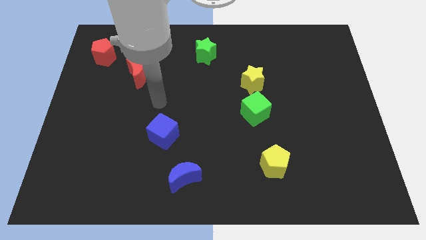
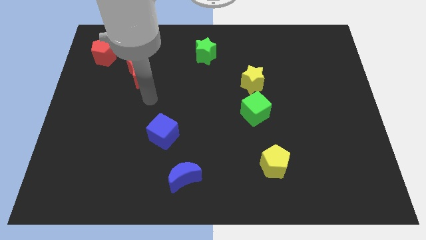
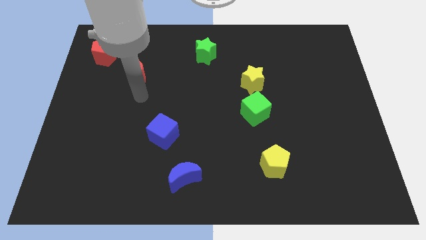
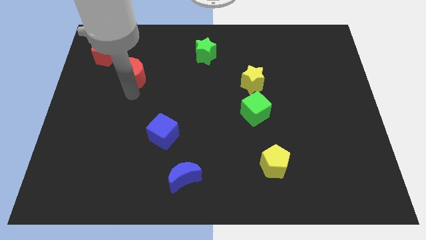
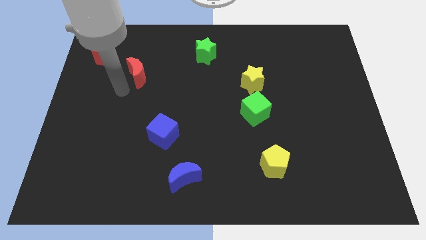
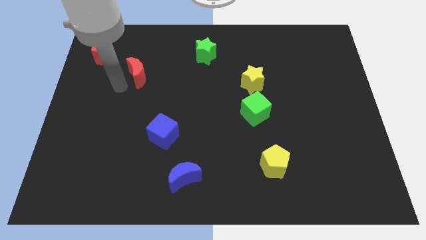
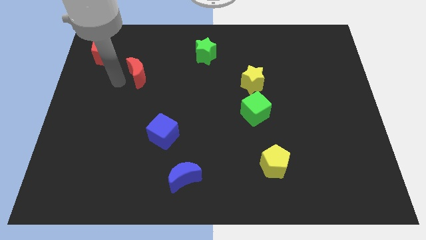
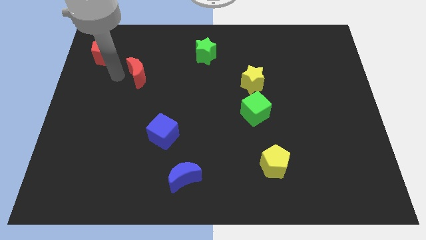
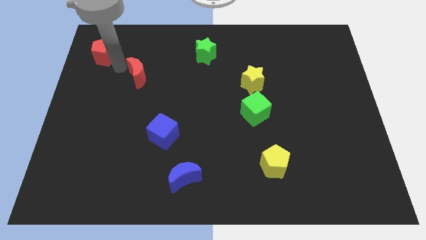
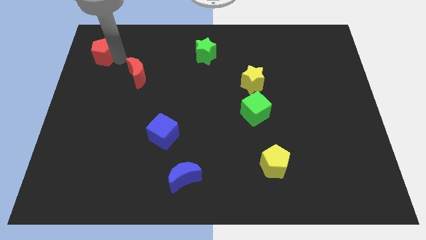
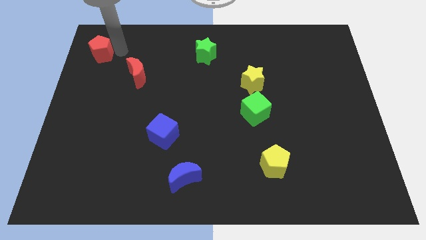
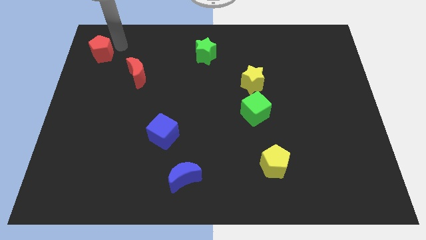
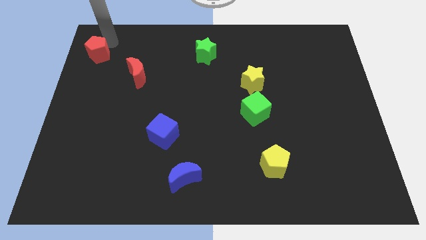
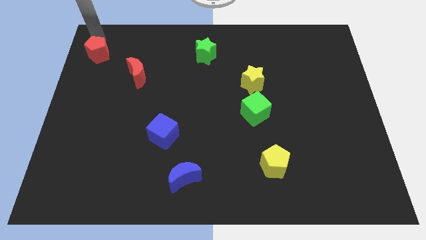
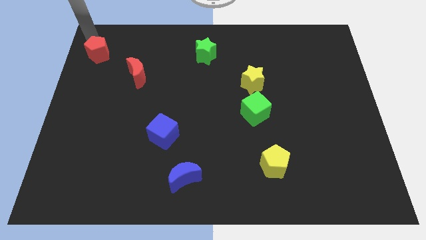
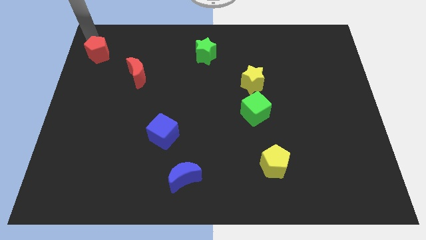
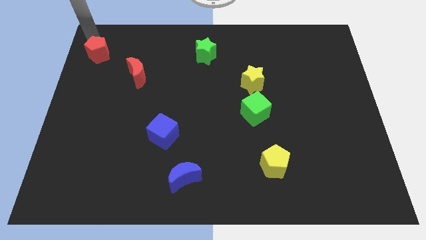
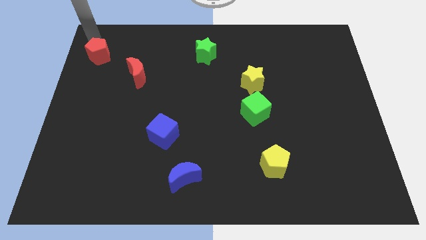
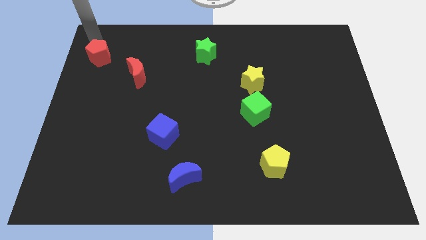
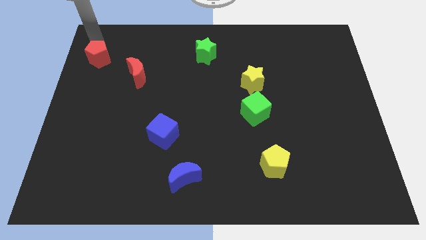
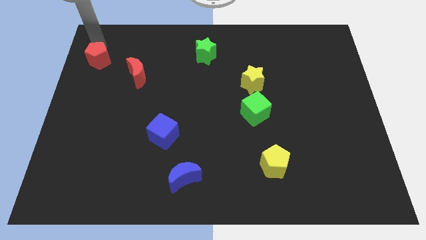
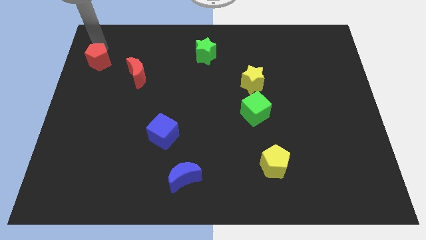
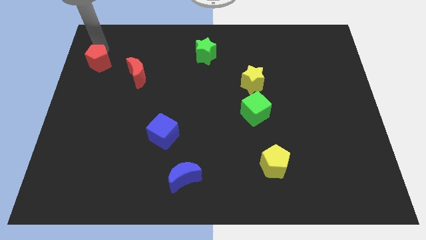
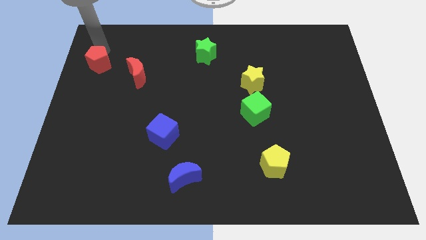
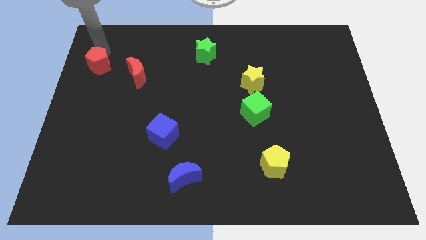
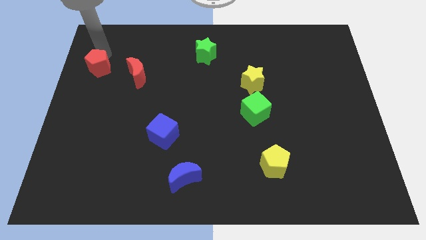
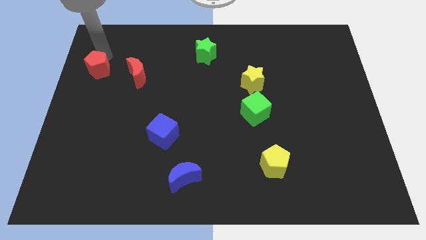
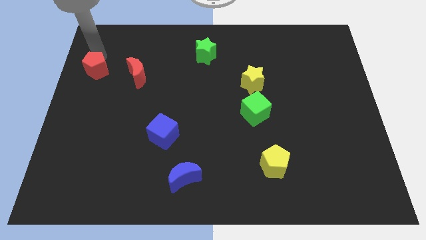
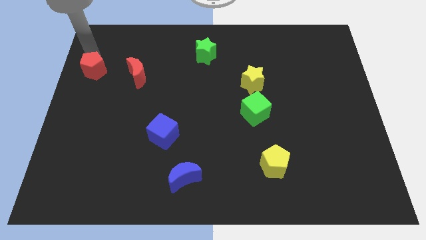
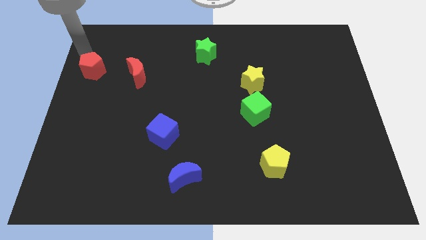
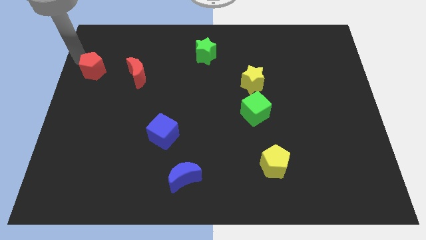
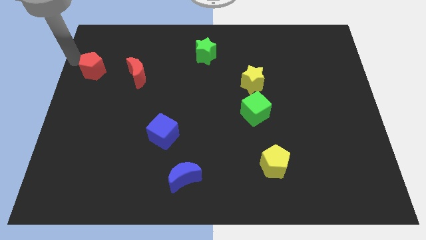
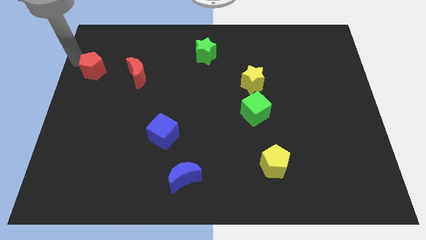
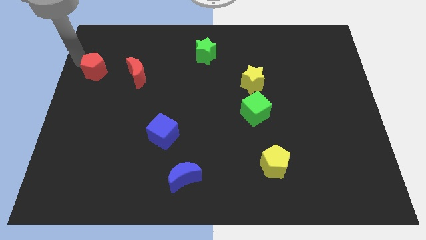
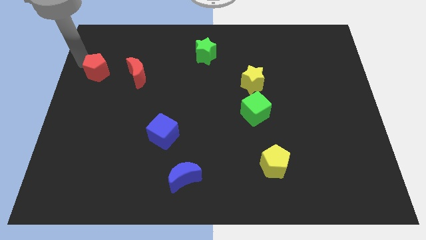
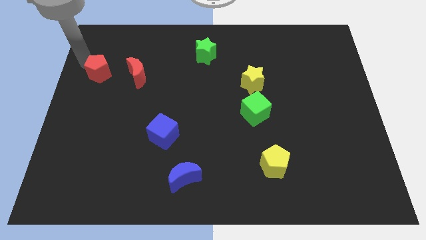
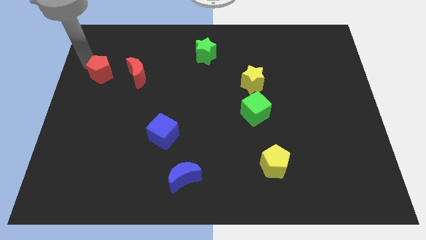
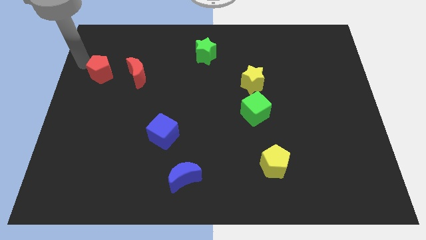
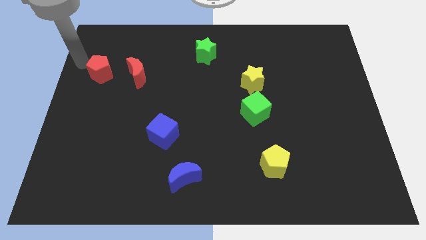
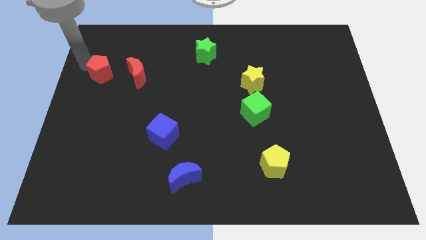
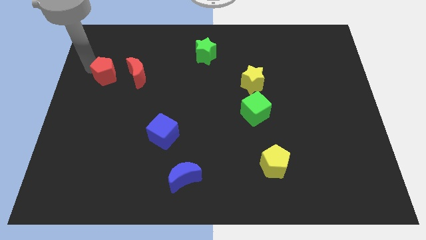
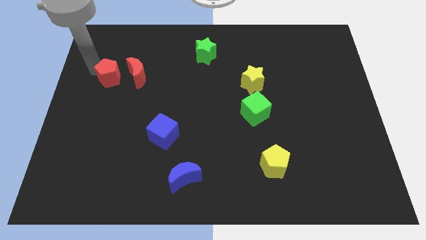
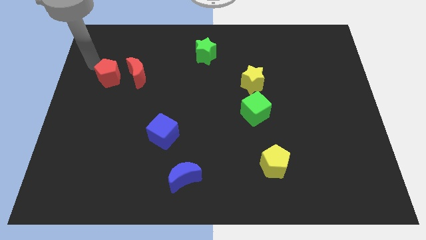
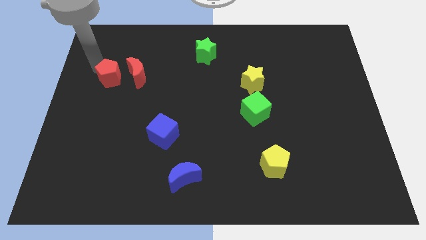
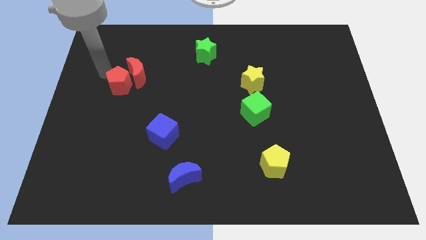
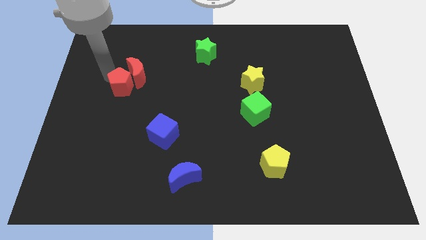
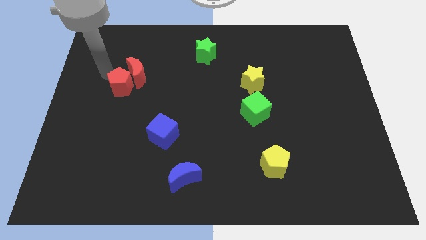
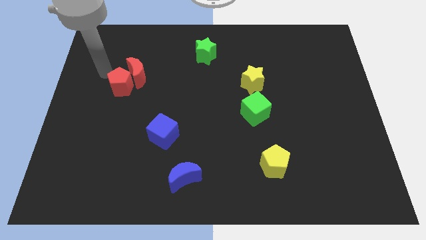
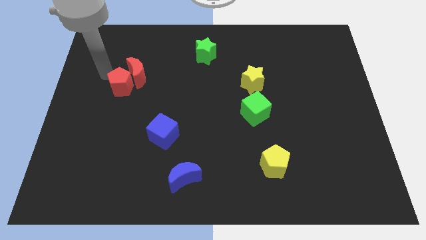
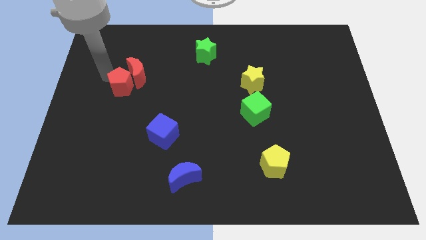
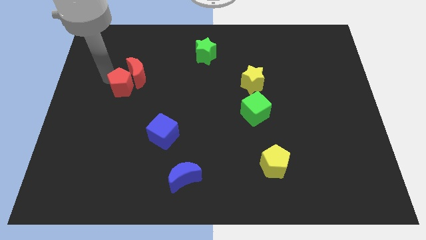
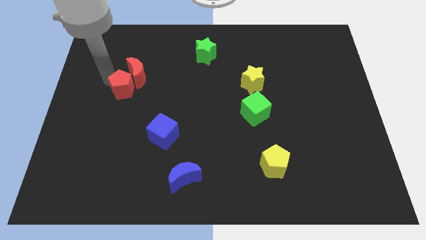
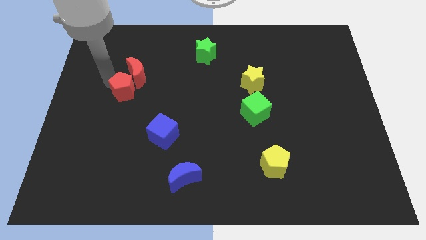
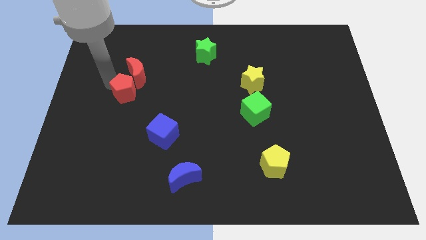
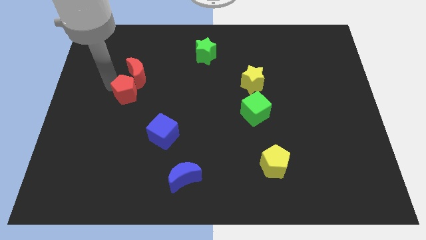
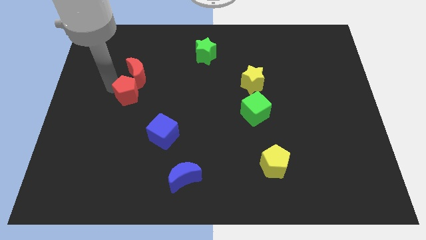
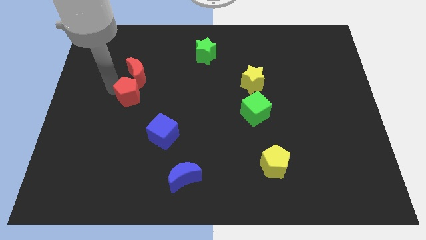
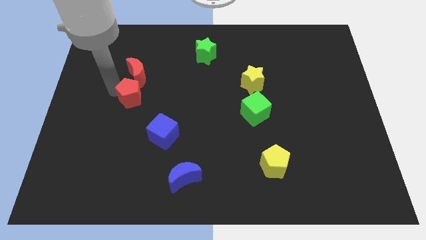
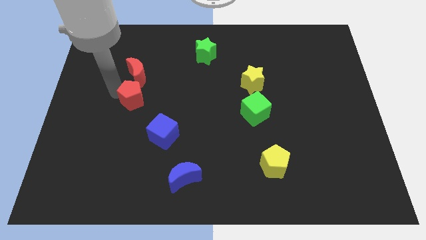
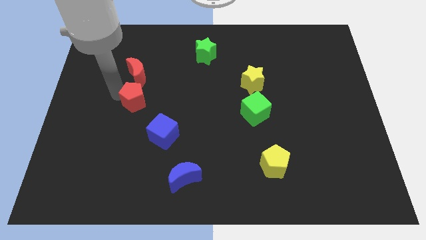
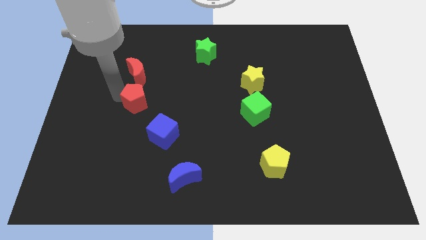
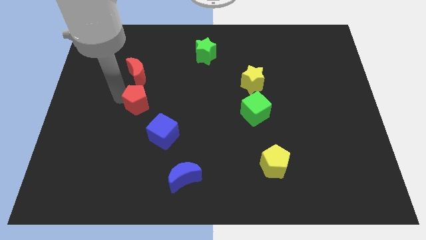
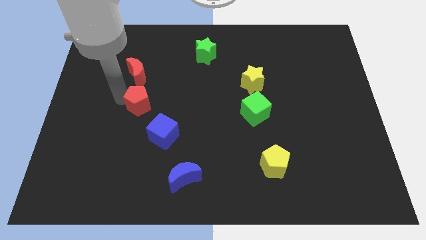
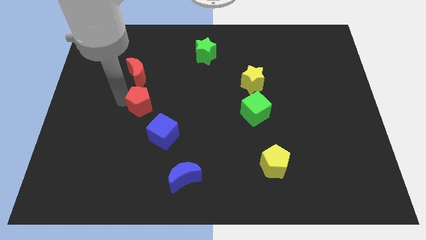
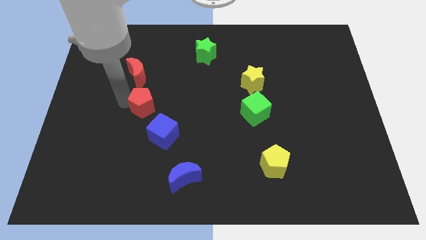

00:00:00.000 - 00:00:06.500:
move the red pentagon downwards and then right

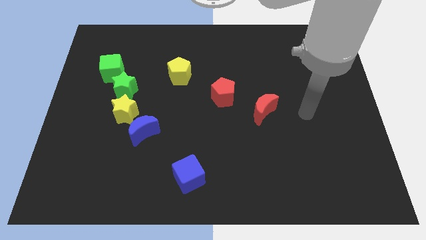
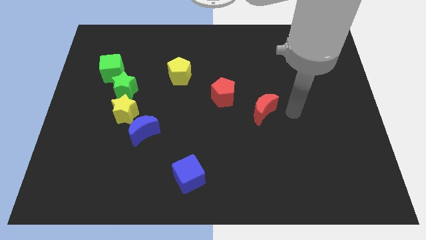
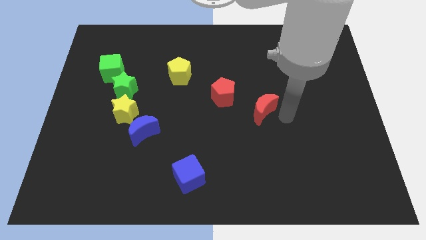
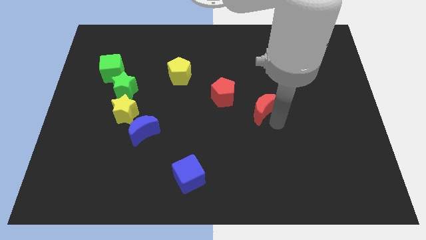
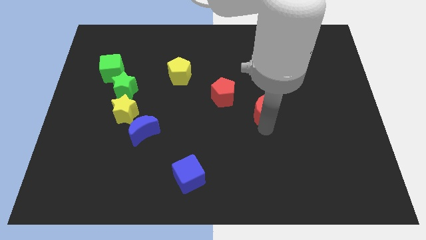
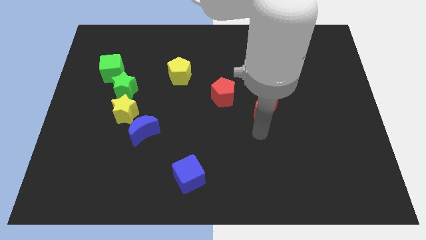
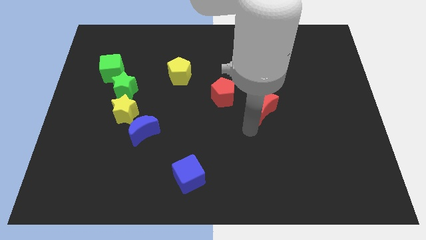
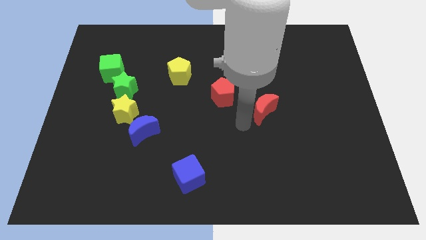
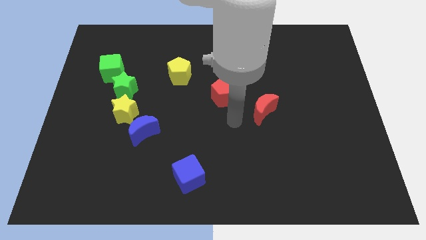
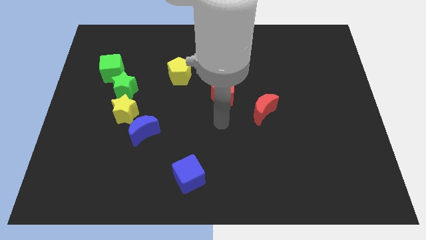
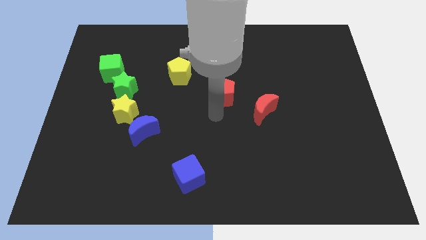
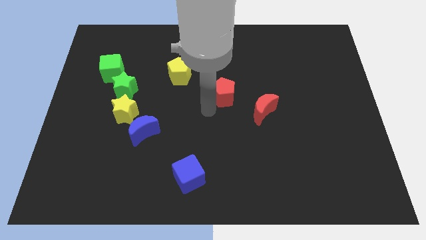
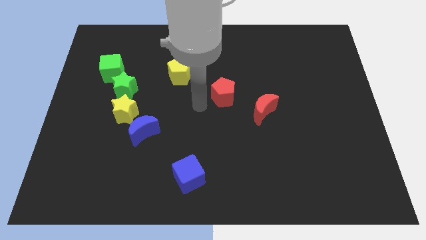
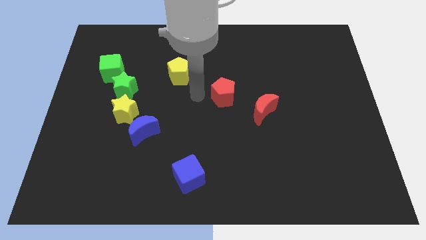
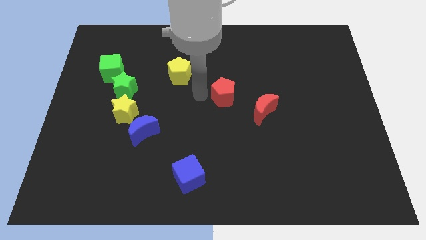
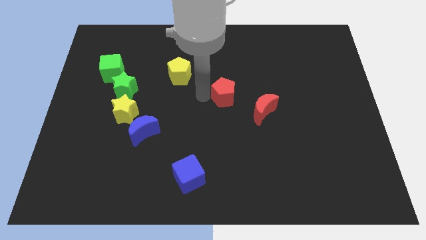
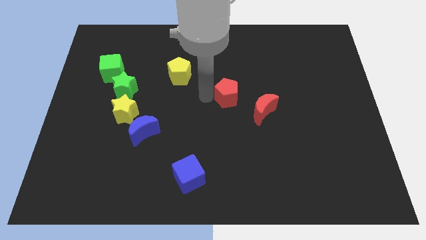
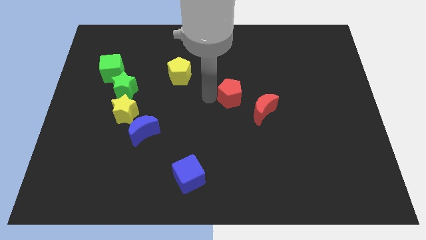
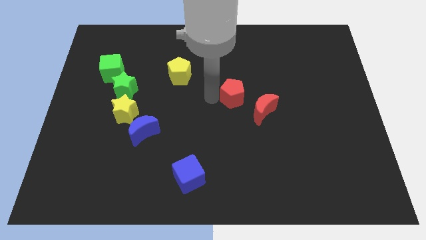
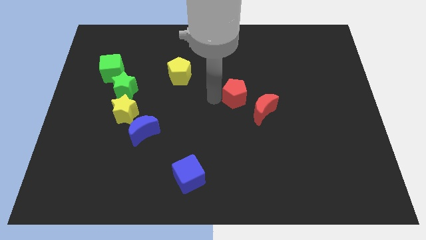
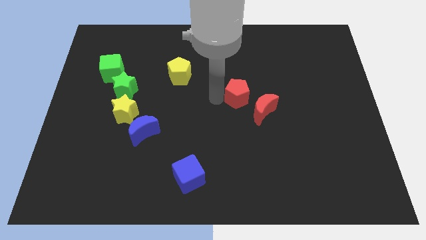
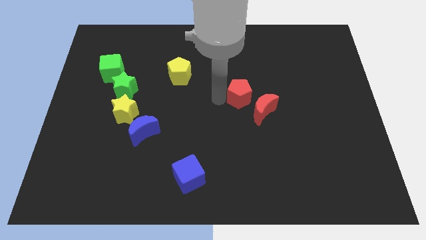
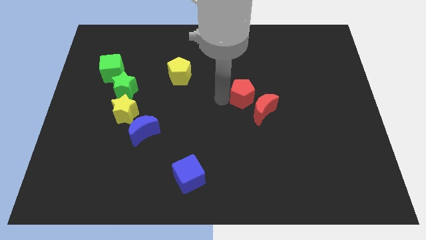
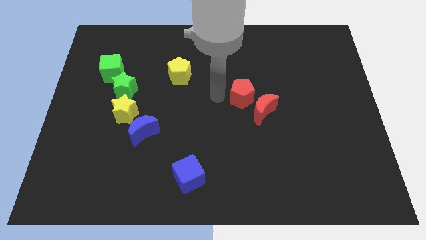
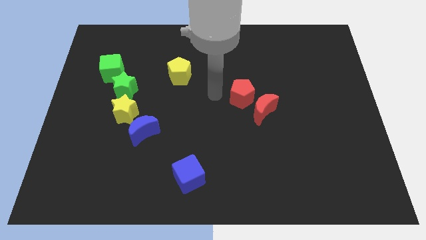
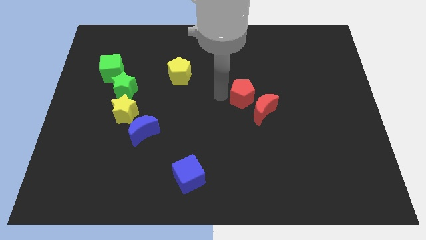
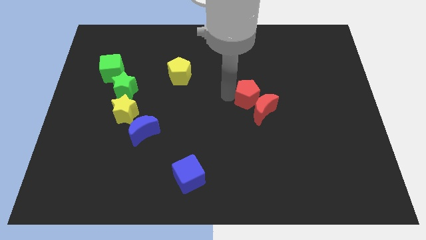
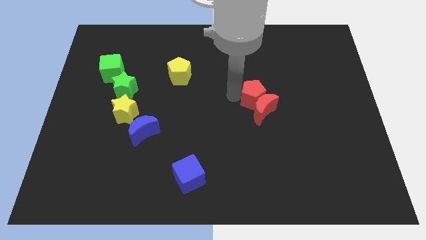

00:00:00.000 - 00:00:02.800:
slide the red pentagon right a little
